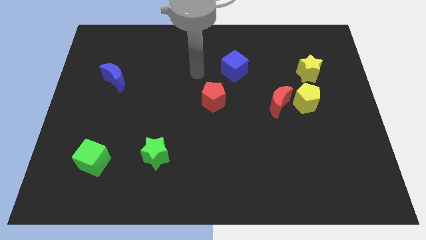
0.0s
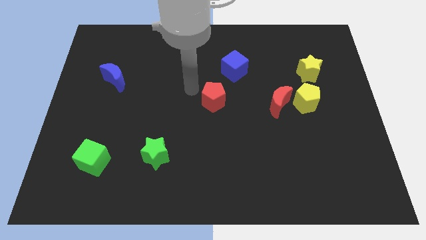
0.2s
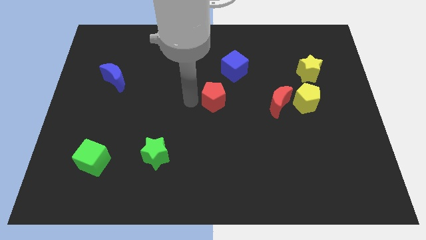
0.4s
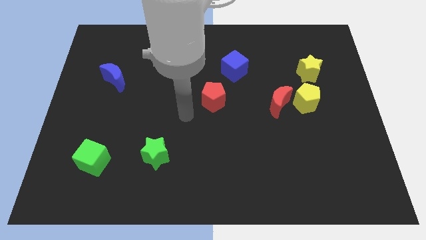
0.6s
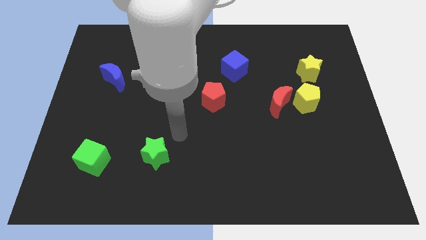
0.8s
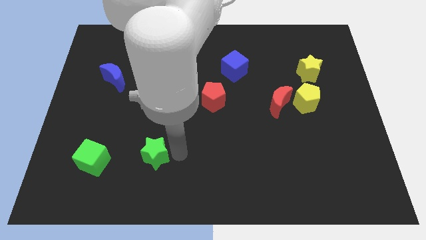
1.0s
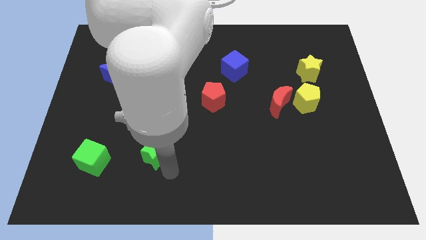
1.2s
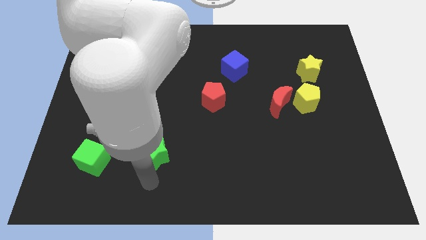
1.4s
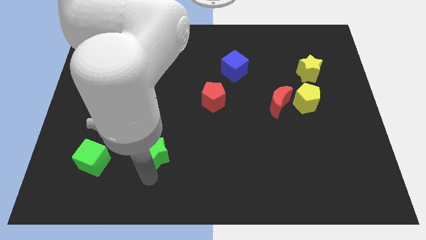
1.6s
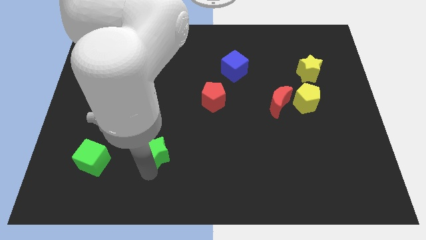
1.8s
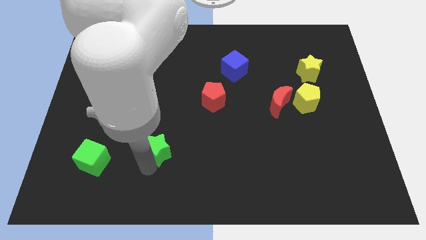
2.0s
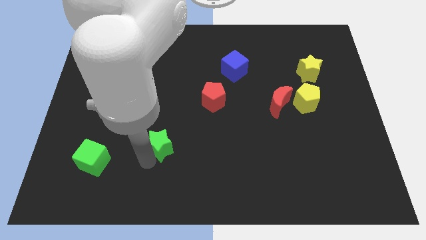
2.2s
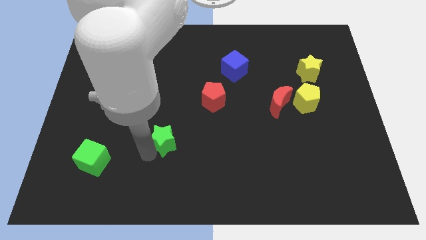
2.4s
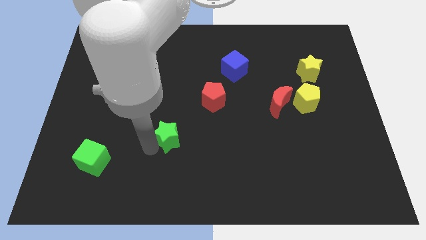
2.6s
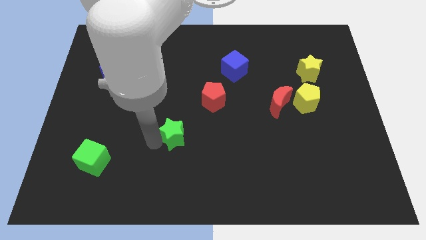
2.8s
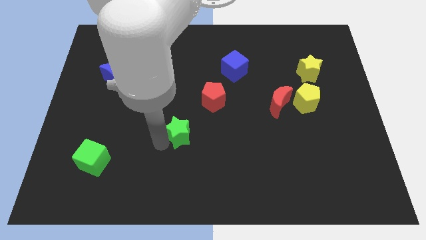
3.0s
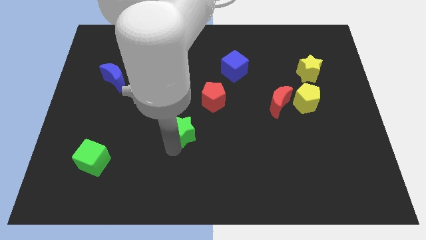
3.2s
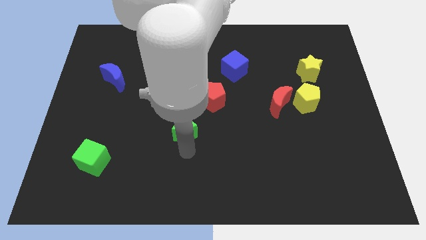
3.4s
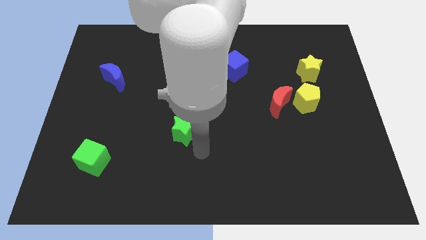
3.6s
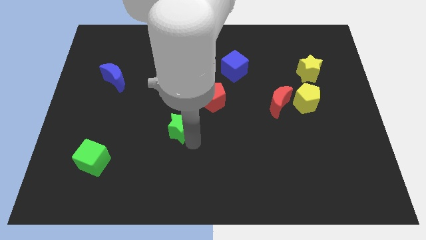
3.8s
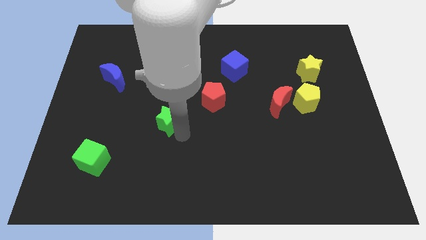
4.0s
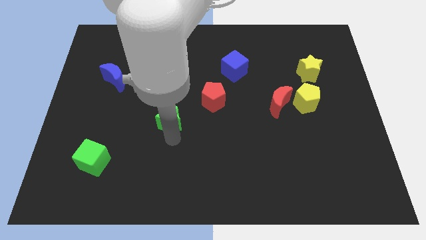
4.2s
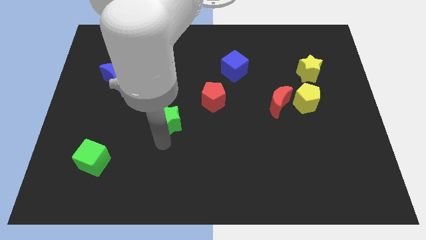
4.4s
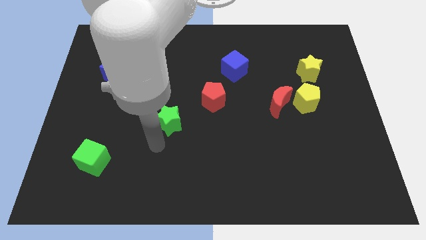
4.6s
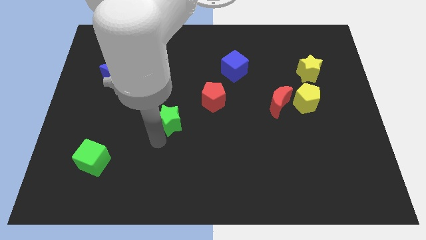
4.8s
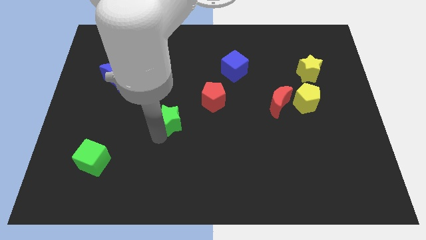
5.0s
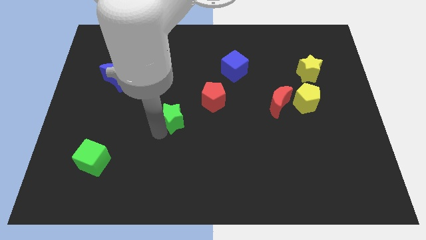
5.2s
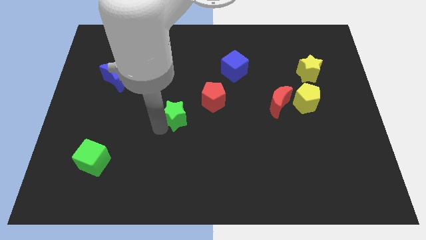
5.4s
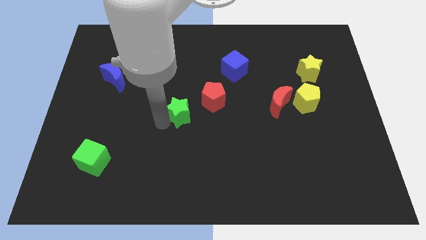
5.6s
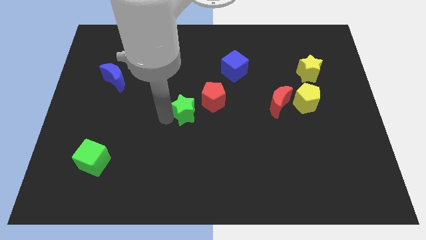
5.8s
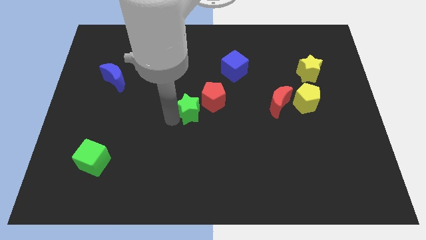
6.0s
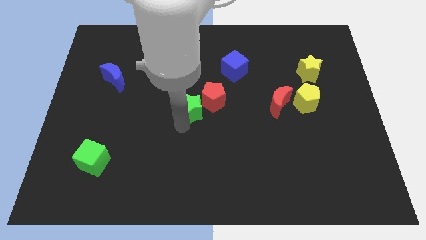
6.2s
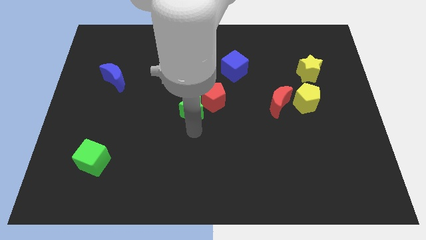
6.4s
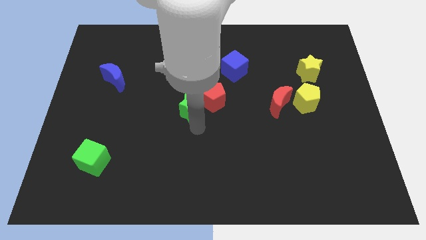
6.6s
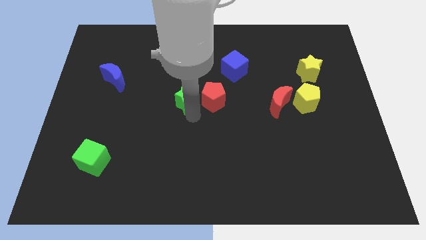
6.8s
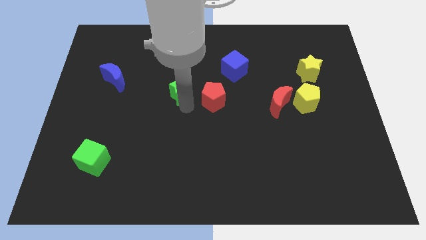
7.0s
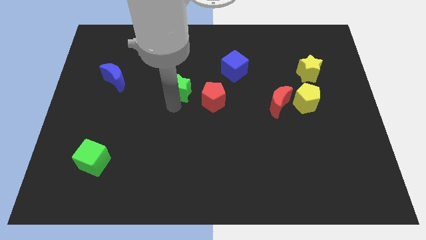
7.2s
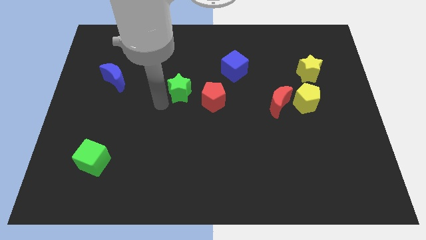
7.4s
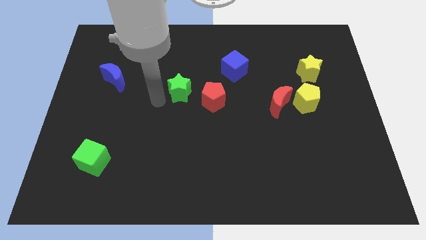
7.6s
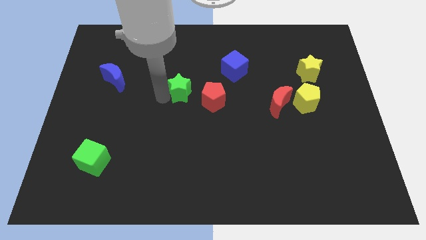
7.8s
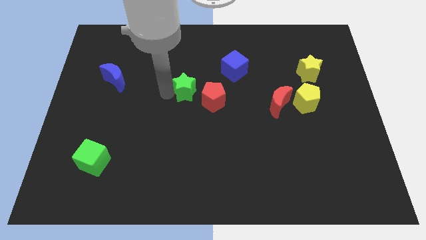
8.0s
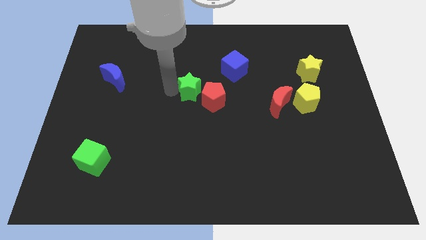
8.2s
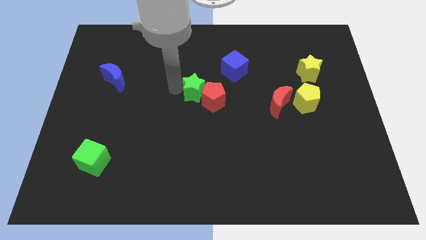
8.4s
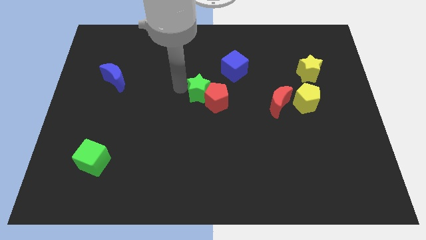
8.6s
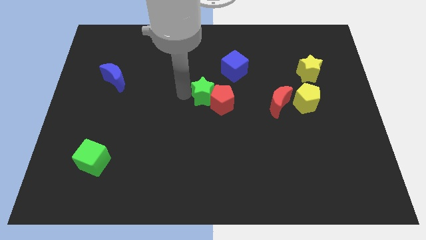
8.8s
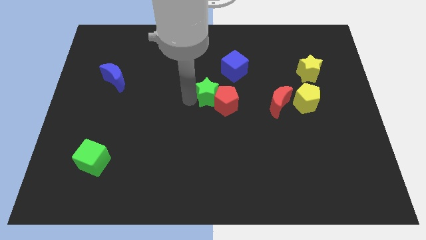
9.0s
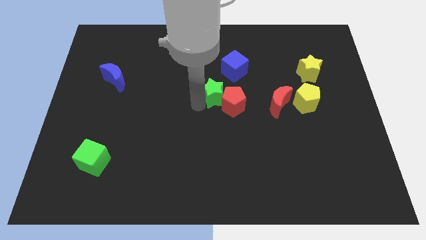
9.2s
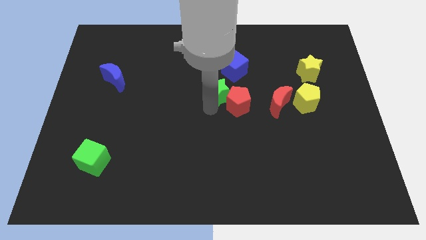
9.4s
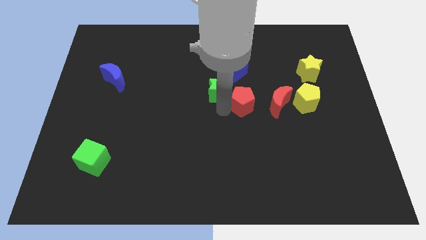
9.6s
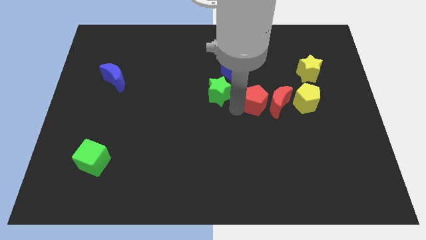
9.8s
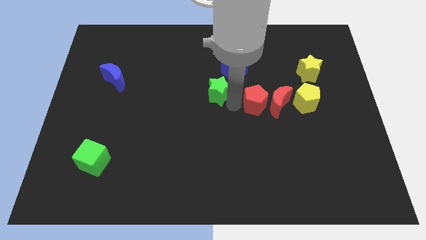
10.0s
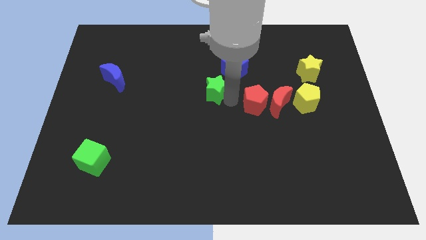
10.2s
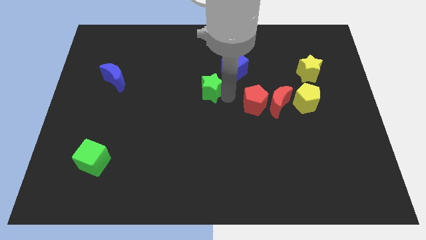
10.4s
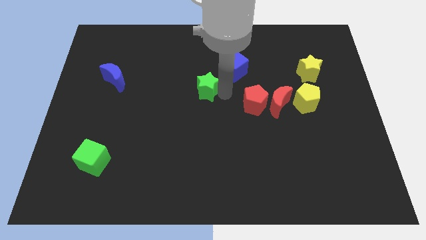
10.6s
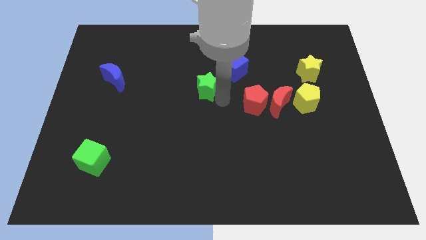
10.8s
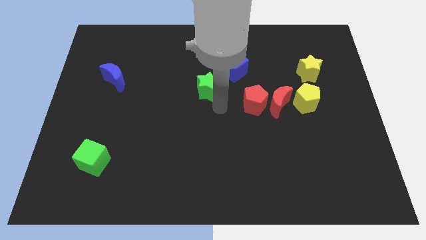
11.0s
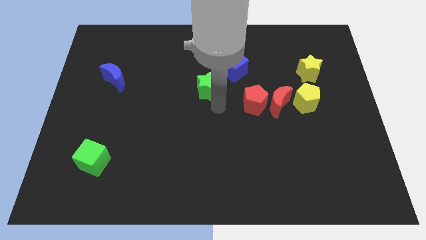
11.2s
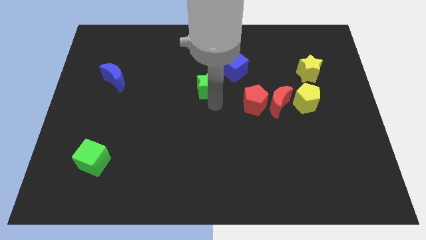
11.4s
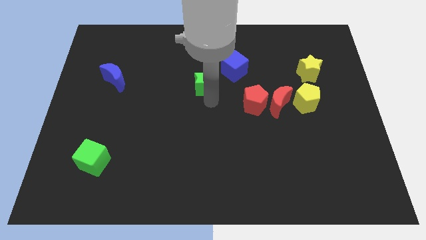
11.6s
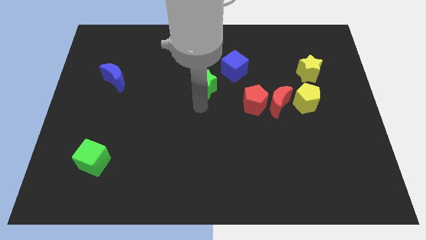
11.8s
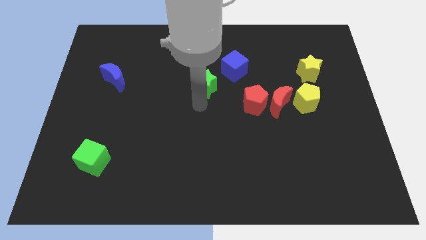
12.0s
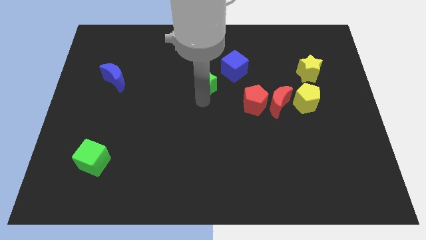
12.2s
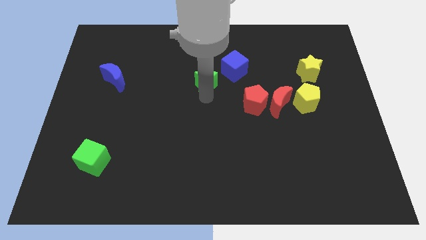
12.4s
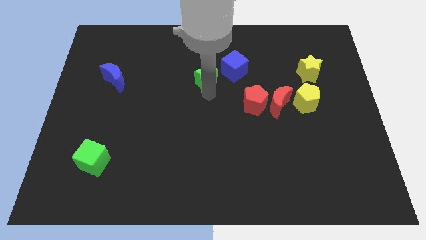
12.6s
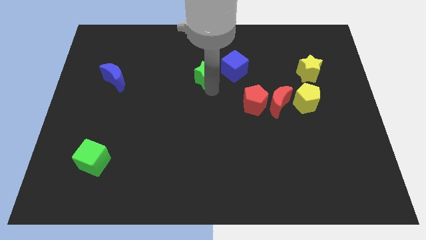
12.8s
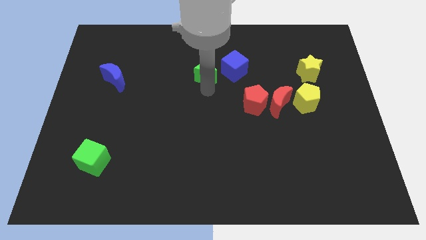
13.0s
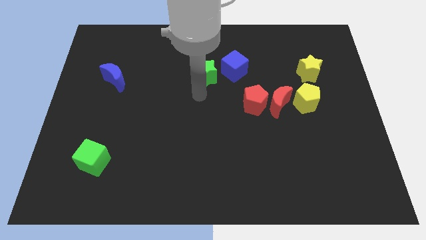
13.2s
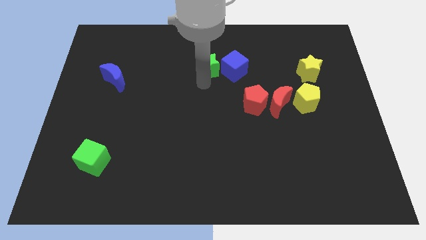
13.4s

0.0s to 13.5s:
push the green star diagonally up and to the left of the blue cube

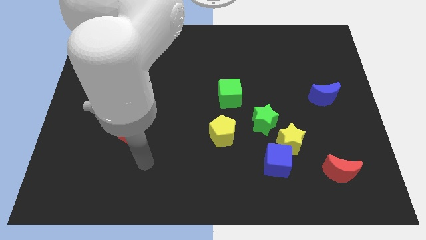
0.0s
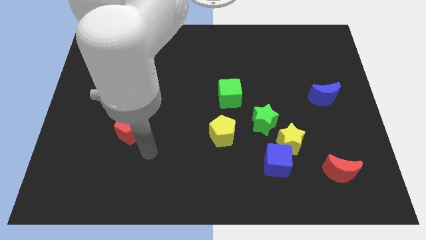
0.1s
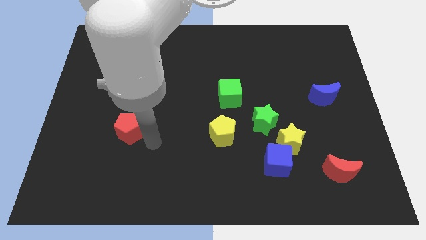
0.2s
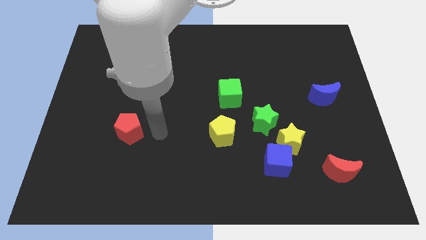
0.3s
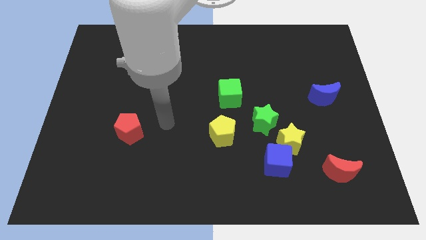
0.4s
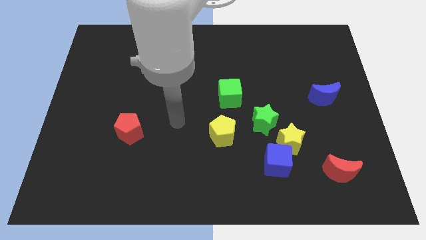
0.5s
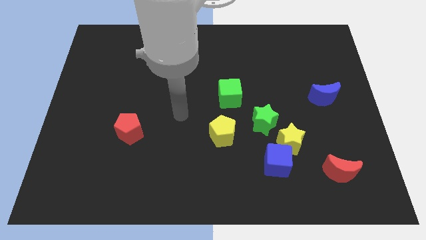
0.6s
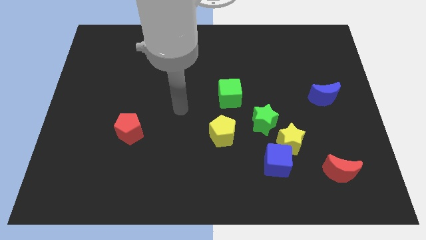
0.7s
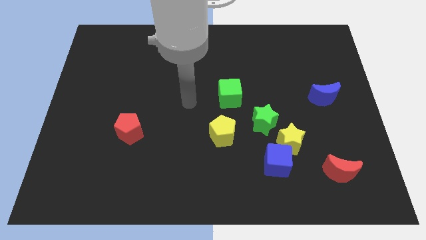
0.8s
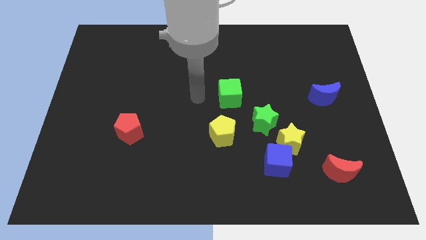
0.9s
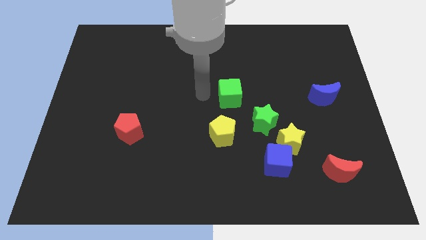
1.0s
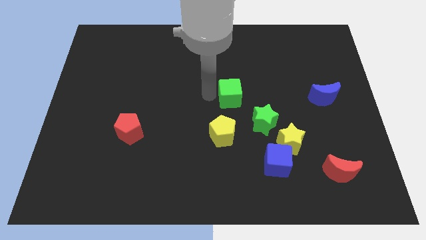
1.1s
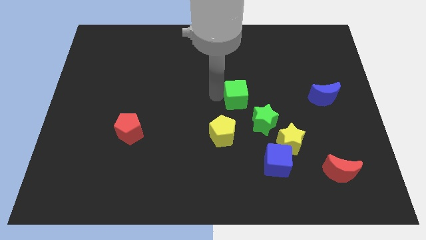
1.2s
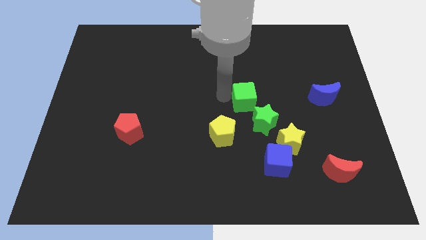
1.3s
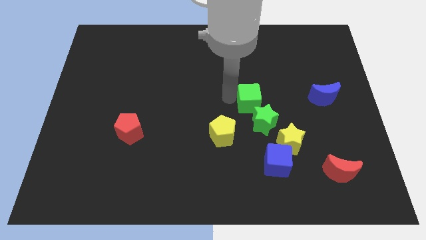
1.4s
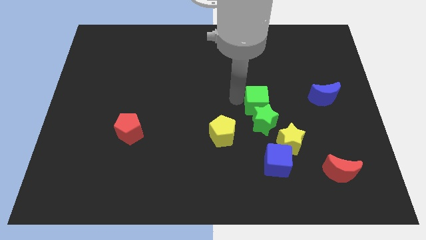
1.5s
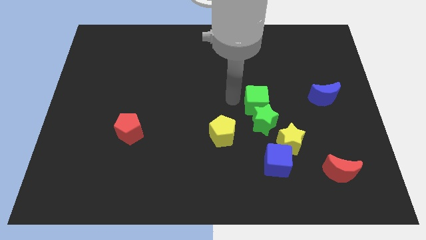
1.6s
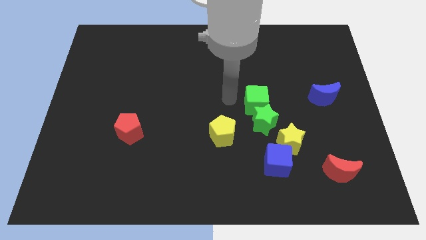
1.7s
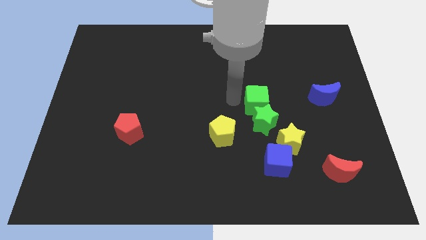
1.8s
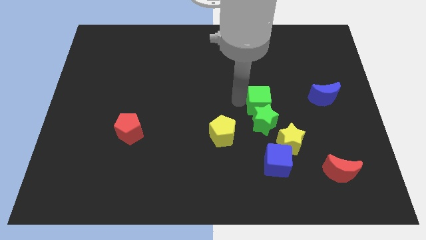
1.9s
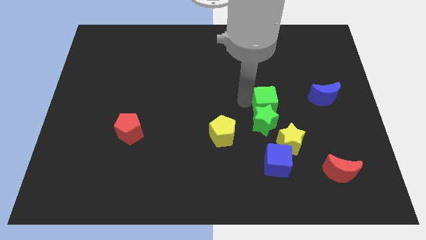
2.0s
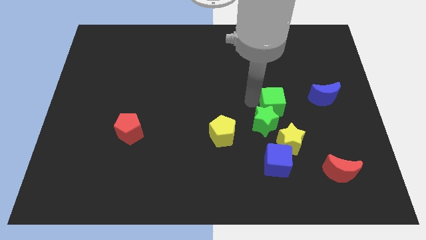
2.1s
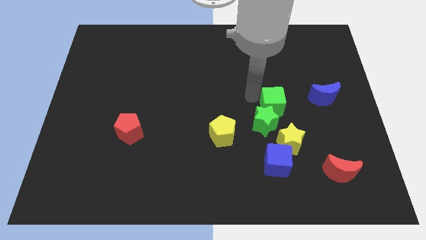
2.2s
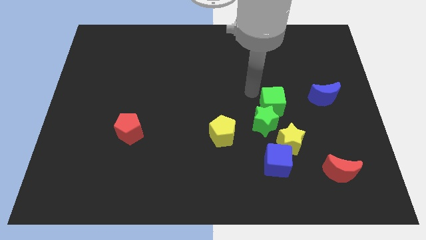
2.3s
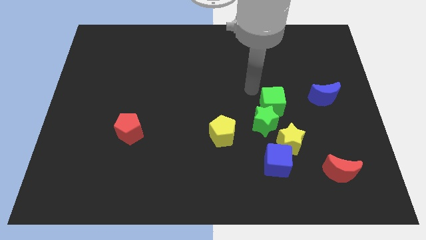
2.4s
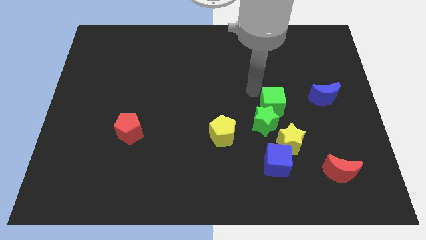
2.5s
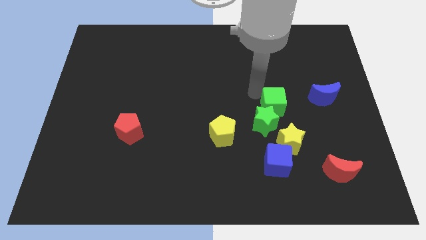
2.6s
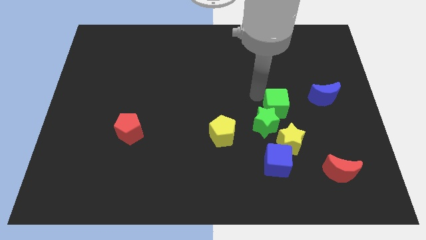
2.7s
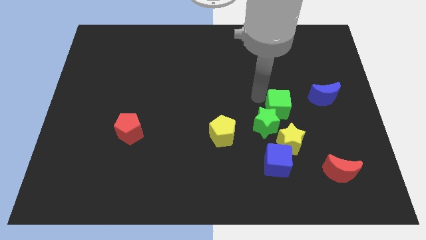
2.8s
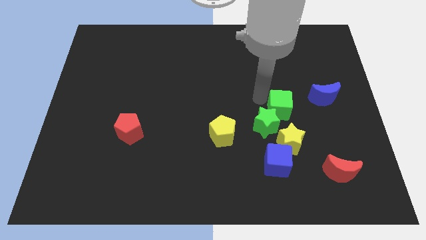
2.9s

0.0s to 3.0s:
put the green cube right of the green star
